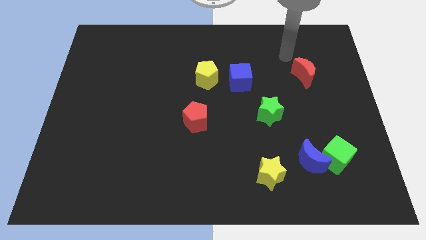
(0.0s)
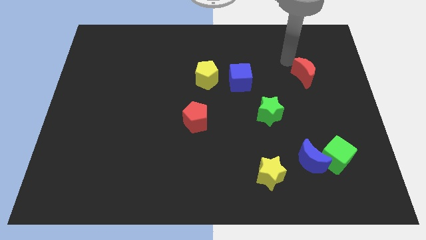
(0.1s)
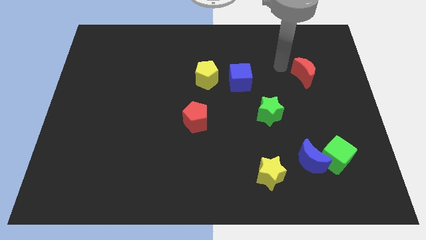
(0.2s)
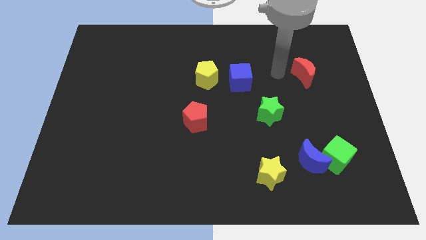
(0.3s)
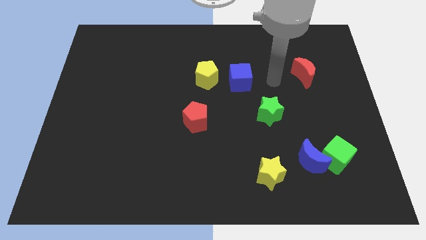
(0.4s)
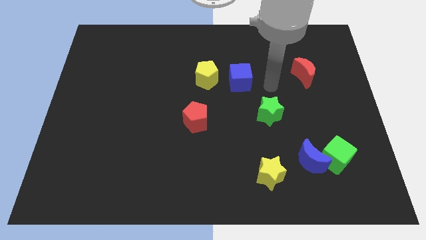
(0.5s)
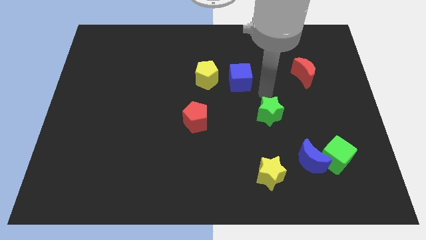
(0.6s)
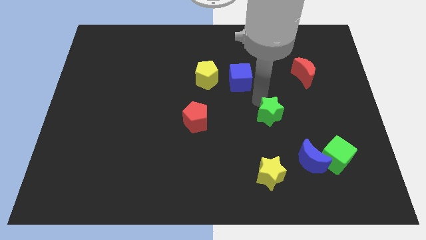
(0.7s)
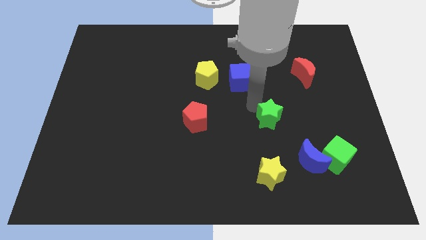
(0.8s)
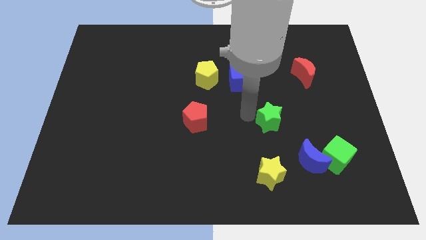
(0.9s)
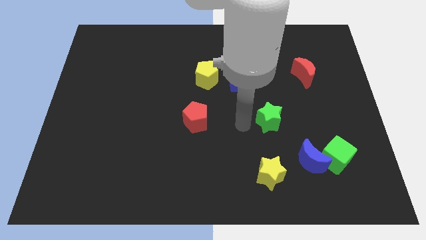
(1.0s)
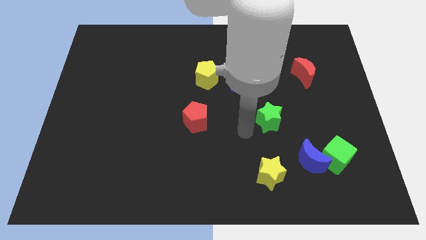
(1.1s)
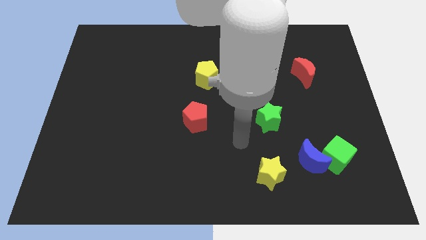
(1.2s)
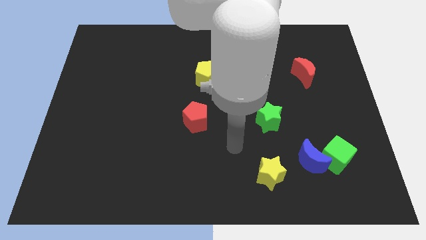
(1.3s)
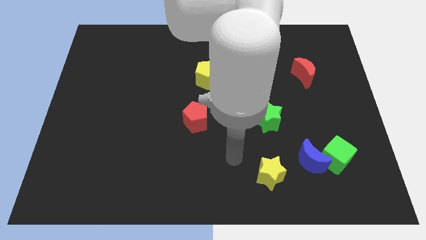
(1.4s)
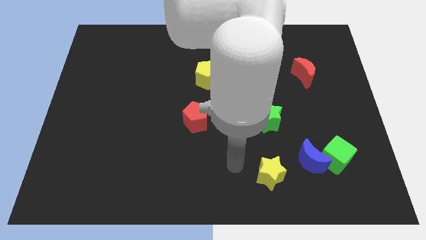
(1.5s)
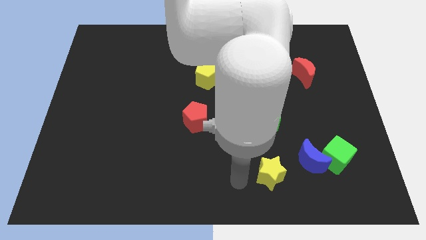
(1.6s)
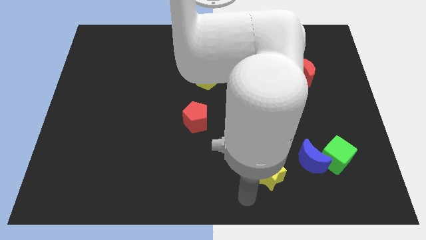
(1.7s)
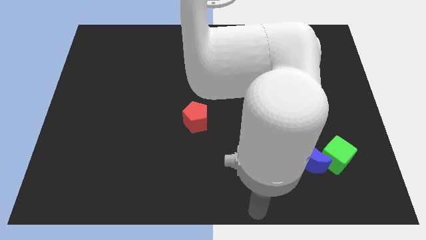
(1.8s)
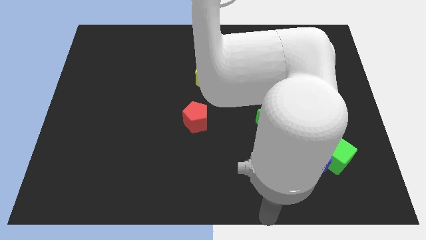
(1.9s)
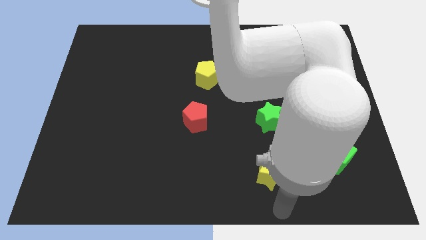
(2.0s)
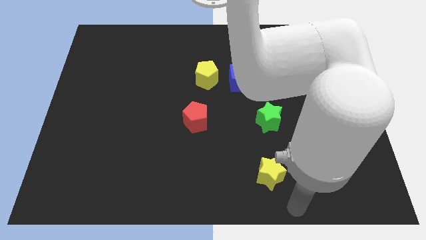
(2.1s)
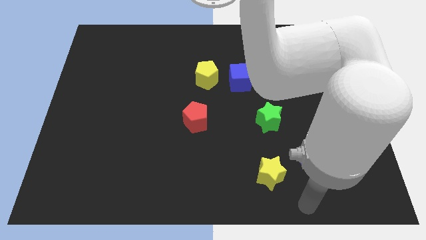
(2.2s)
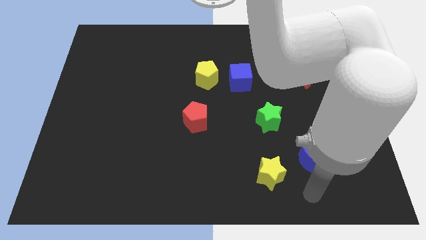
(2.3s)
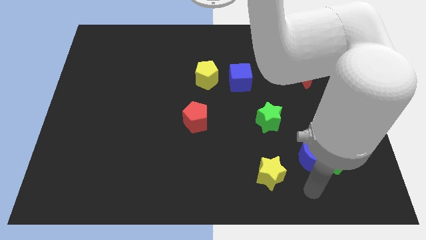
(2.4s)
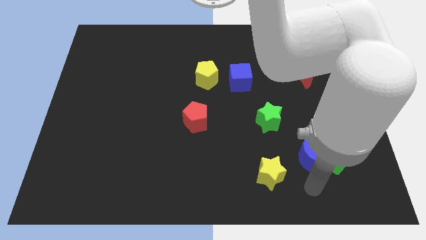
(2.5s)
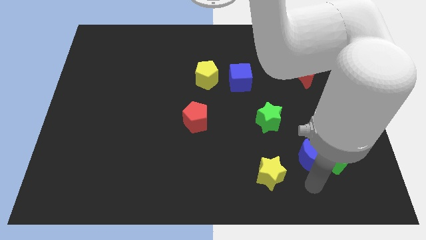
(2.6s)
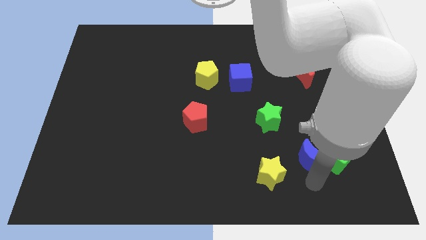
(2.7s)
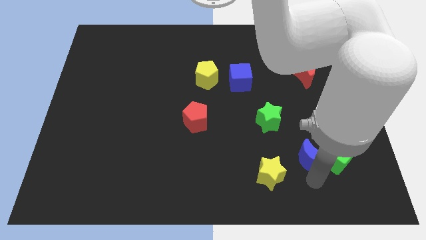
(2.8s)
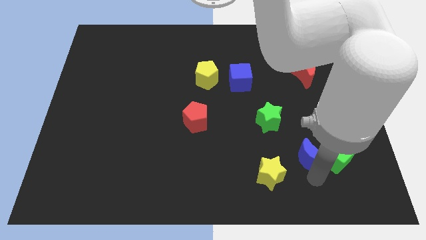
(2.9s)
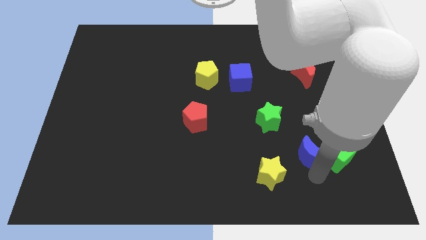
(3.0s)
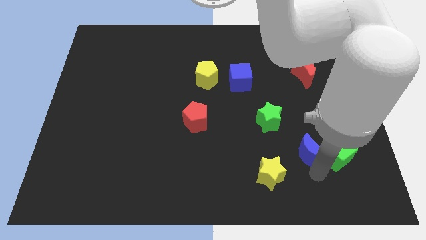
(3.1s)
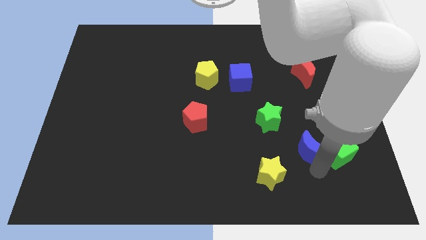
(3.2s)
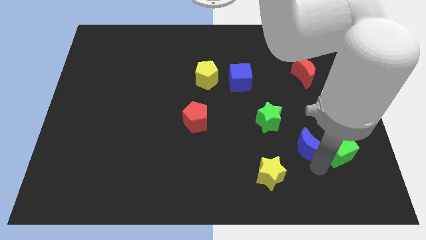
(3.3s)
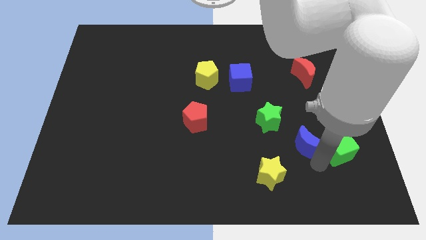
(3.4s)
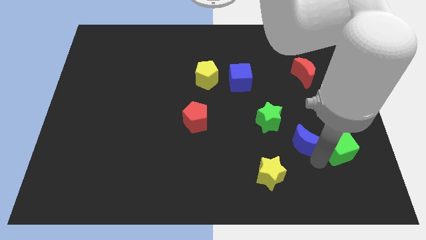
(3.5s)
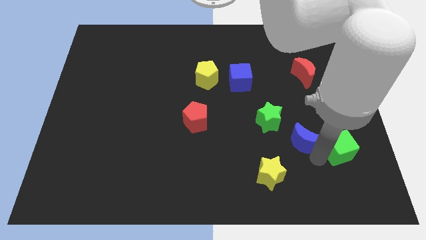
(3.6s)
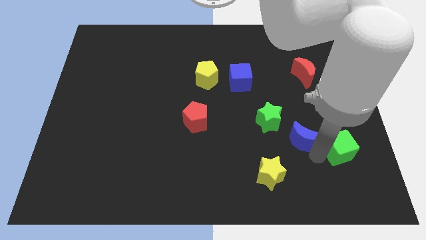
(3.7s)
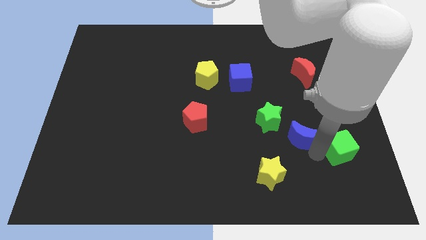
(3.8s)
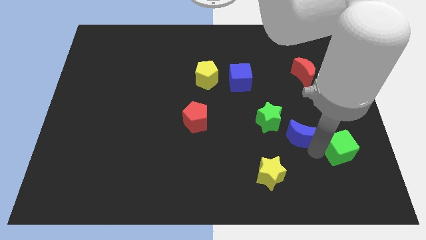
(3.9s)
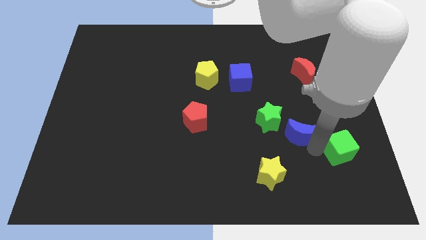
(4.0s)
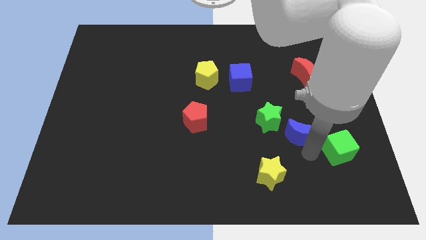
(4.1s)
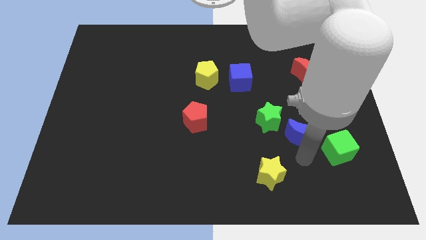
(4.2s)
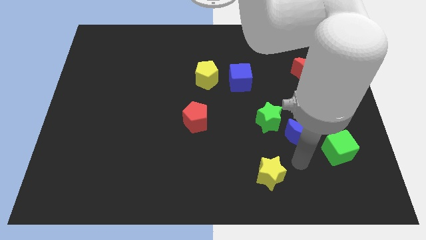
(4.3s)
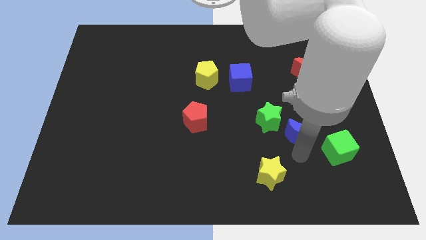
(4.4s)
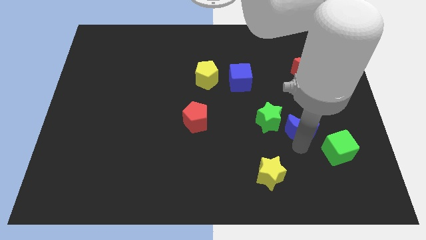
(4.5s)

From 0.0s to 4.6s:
move the blue moon upwards somewhat

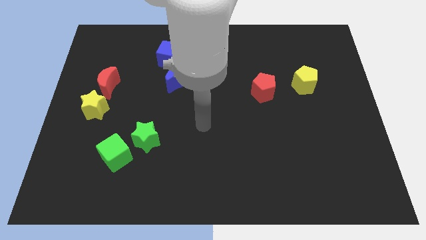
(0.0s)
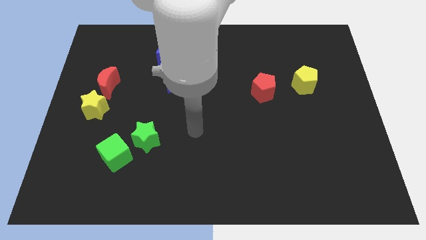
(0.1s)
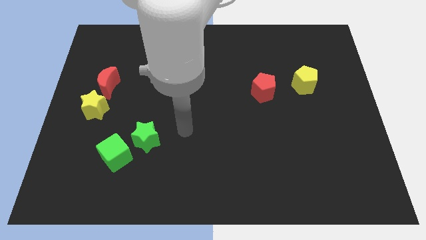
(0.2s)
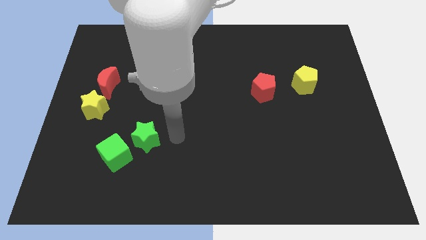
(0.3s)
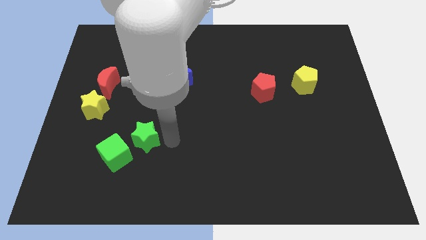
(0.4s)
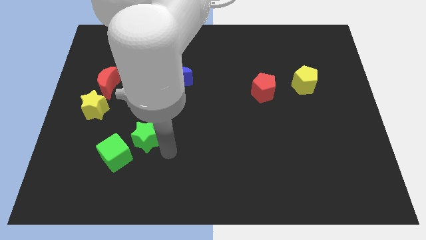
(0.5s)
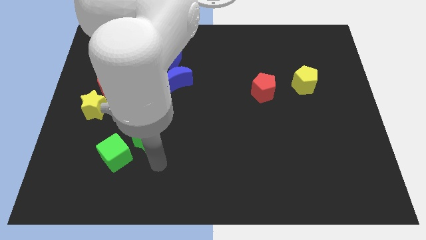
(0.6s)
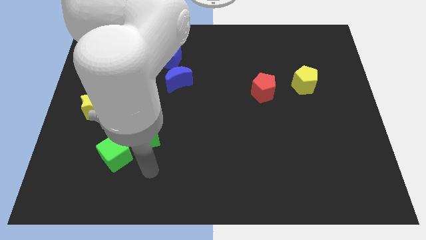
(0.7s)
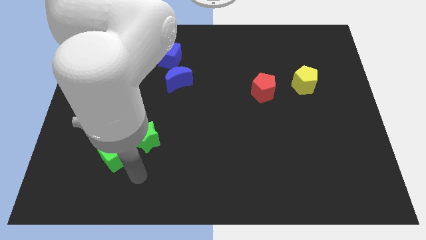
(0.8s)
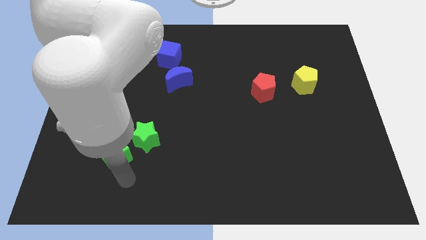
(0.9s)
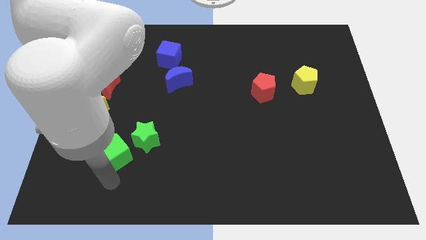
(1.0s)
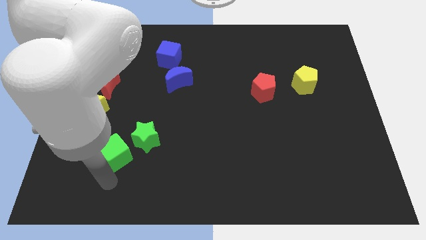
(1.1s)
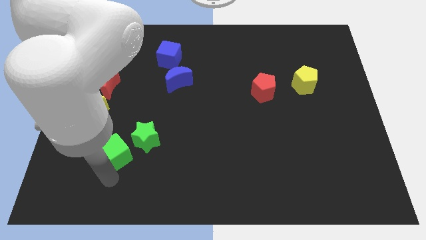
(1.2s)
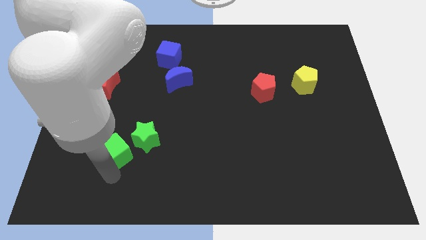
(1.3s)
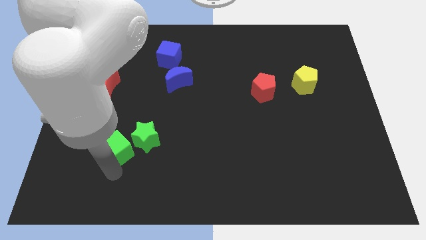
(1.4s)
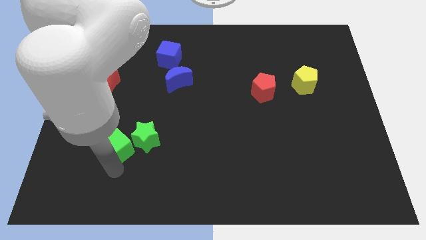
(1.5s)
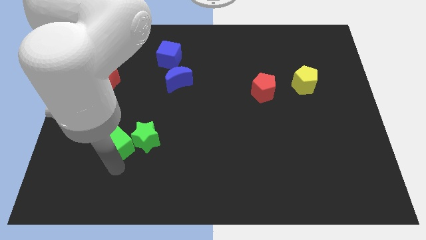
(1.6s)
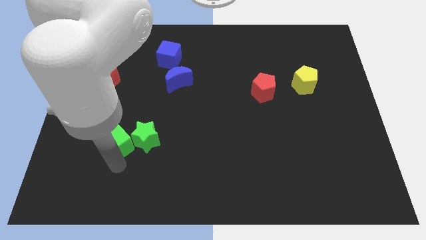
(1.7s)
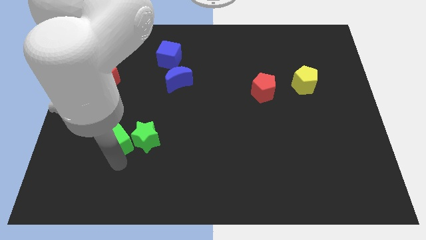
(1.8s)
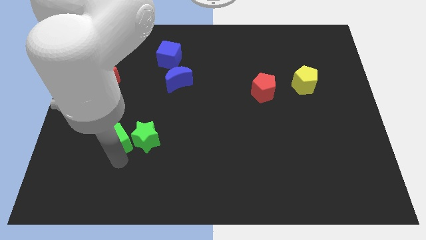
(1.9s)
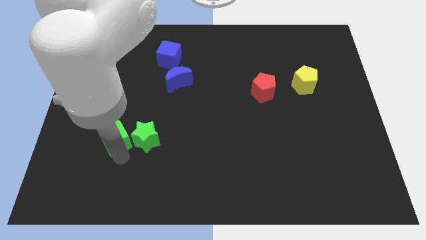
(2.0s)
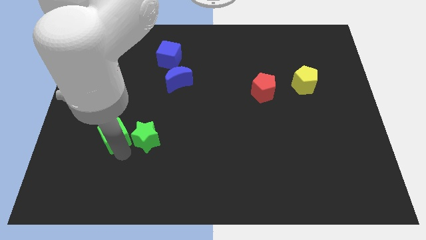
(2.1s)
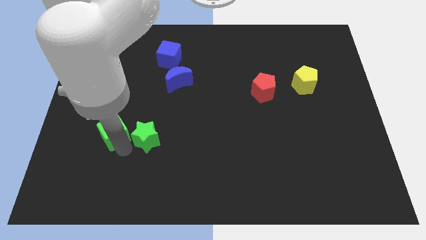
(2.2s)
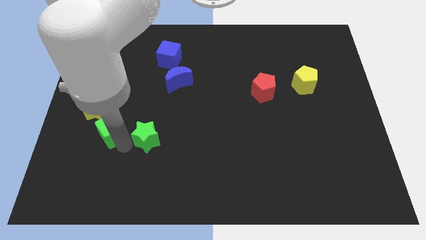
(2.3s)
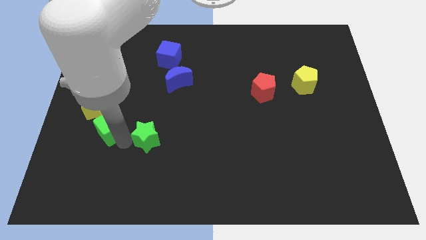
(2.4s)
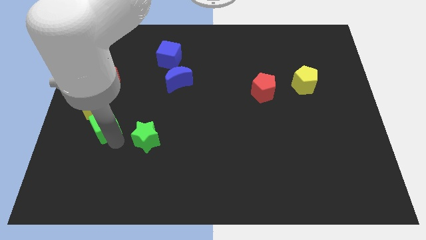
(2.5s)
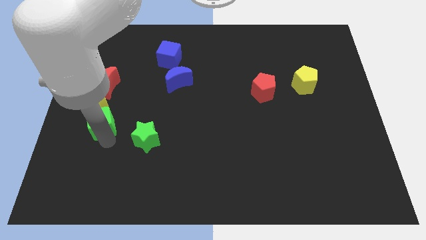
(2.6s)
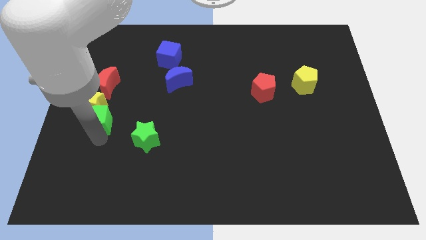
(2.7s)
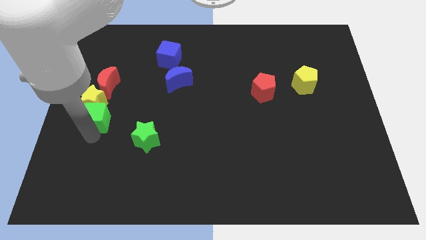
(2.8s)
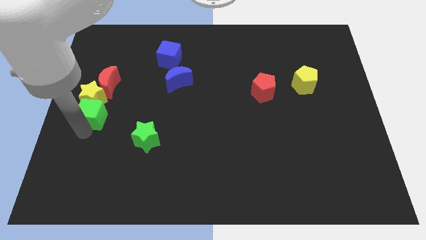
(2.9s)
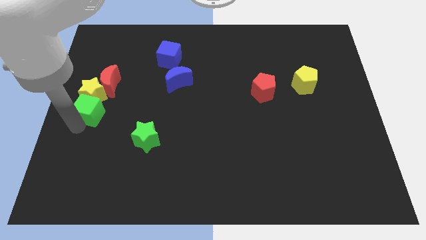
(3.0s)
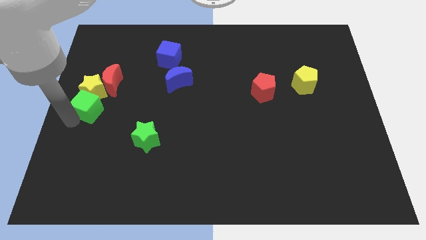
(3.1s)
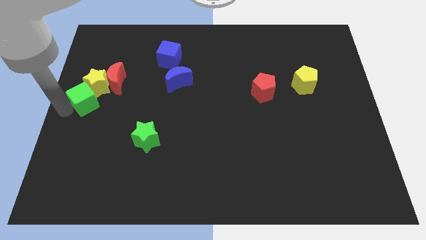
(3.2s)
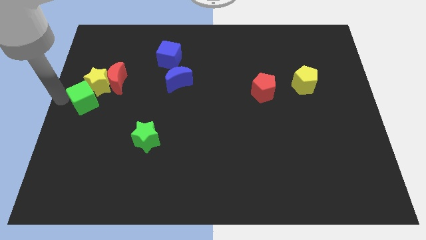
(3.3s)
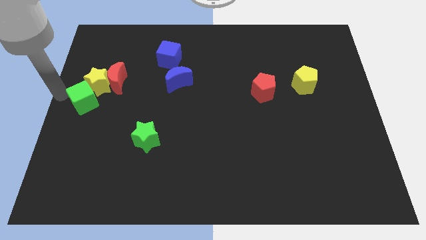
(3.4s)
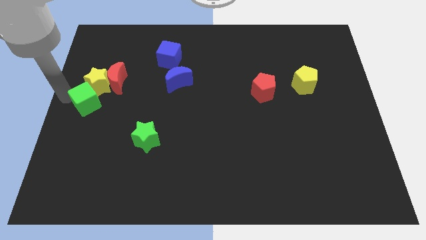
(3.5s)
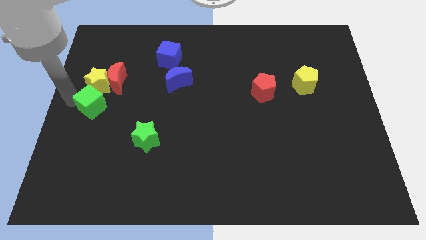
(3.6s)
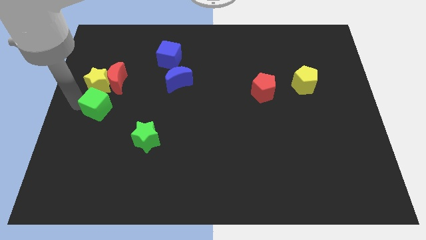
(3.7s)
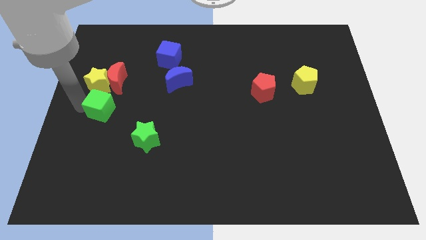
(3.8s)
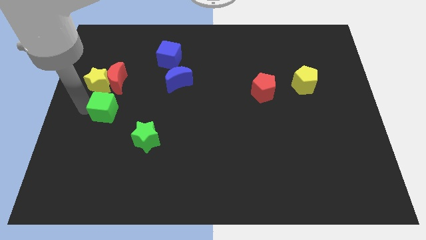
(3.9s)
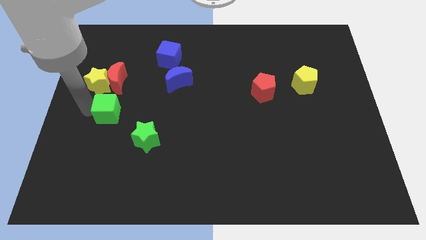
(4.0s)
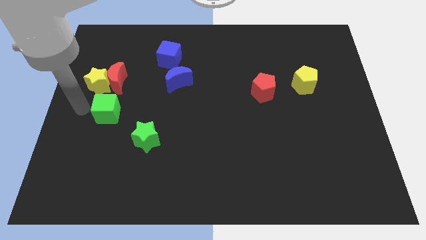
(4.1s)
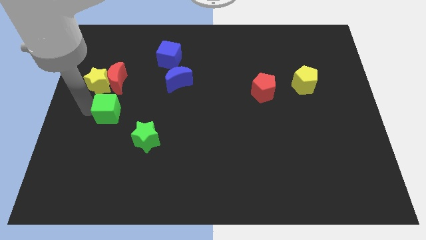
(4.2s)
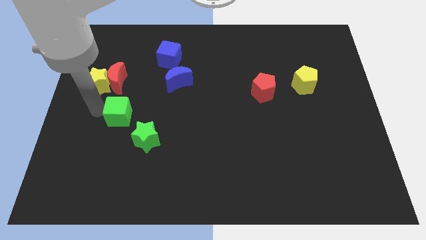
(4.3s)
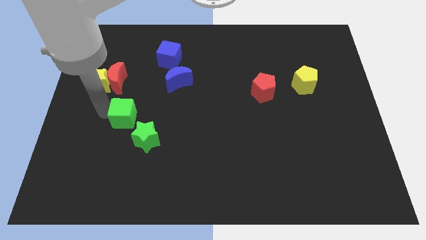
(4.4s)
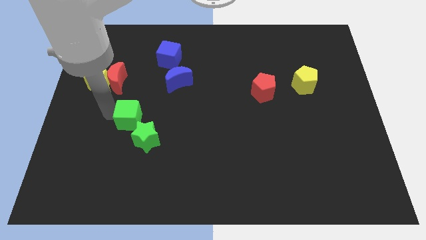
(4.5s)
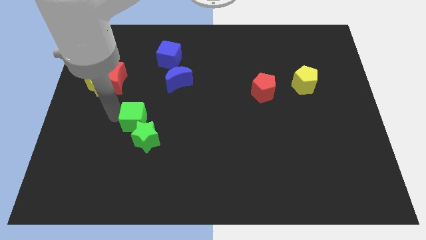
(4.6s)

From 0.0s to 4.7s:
slide the green cube slightly up and right diagonally
